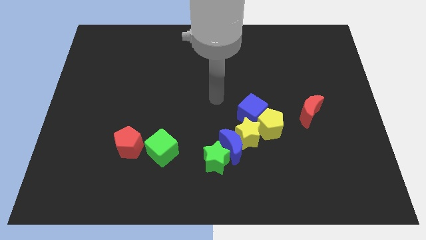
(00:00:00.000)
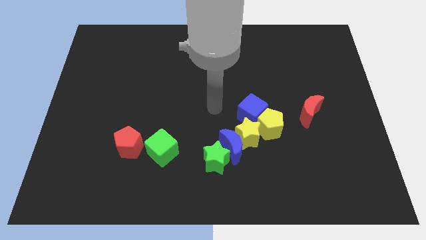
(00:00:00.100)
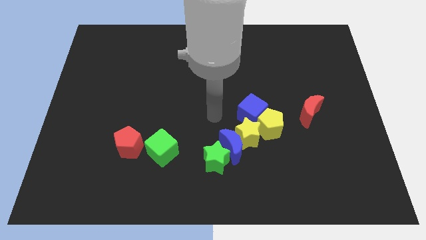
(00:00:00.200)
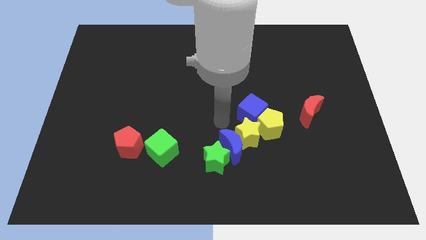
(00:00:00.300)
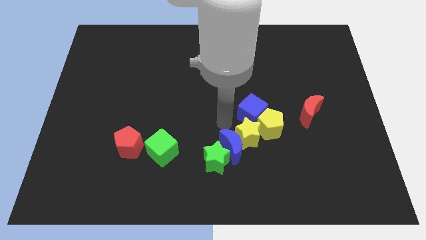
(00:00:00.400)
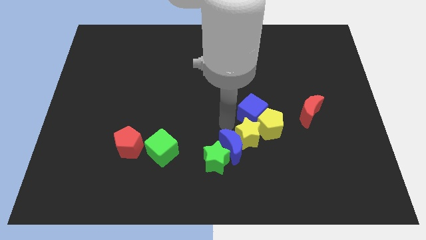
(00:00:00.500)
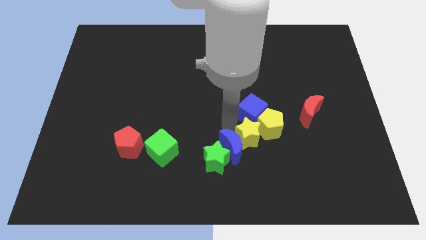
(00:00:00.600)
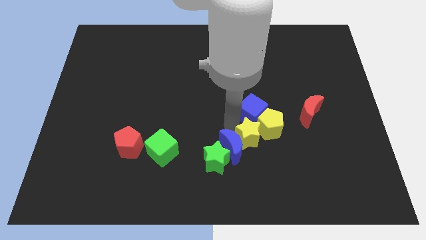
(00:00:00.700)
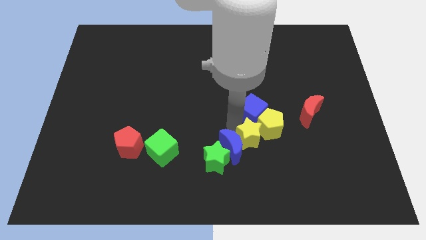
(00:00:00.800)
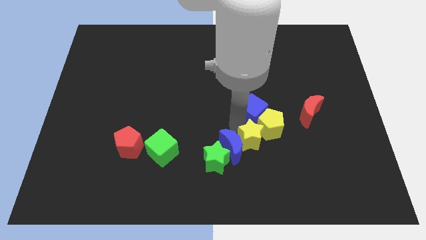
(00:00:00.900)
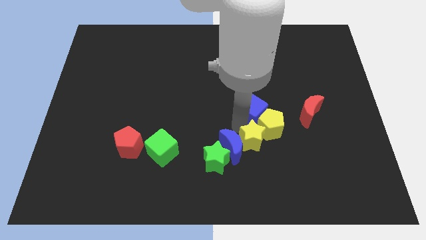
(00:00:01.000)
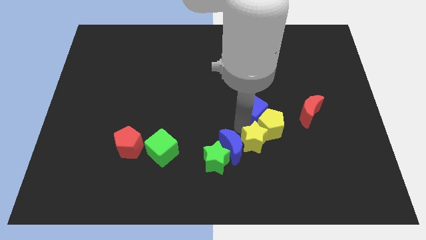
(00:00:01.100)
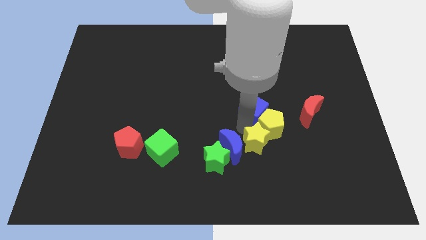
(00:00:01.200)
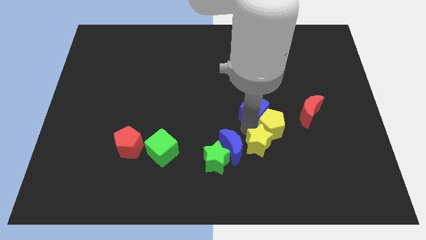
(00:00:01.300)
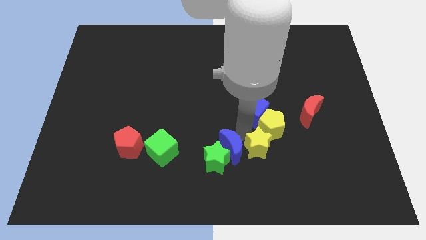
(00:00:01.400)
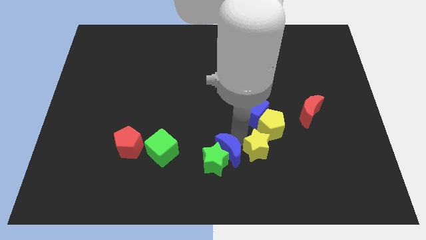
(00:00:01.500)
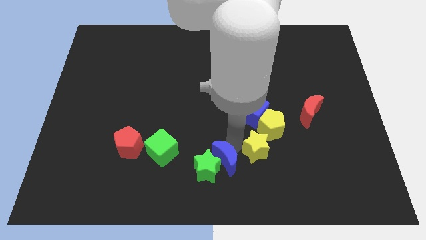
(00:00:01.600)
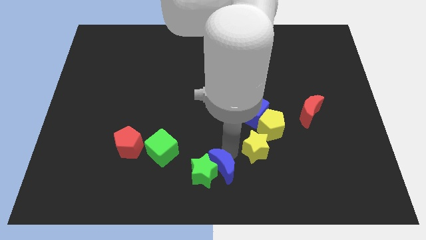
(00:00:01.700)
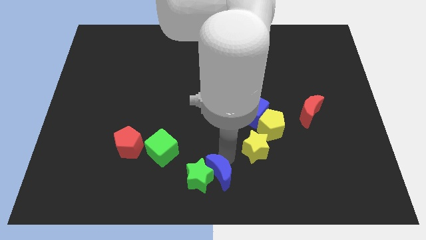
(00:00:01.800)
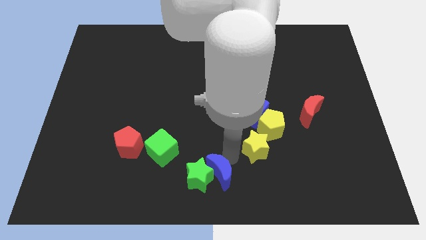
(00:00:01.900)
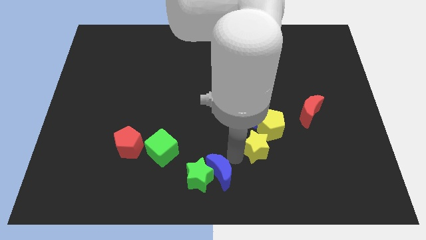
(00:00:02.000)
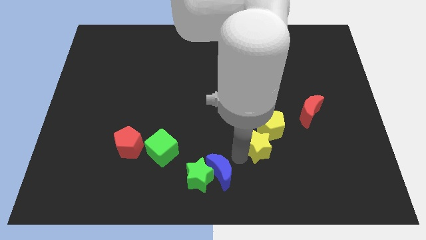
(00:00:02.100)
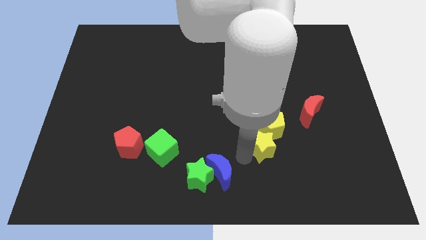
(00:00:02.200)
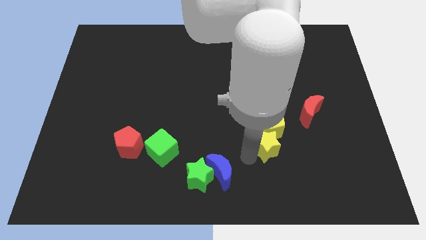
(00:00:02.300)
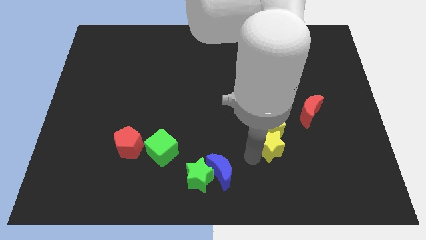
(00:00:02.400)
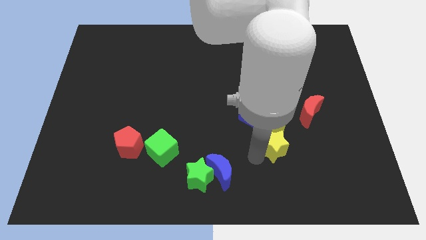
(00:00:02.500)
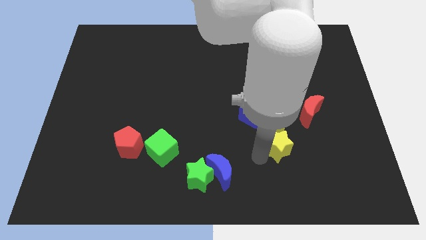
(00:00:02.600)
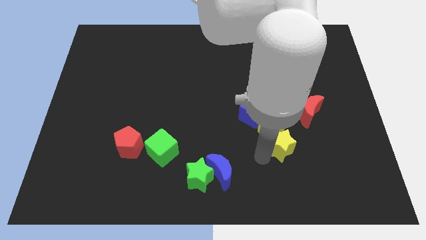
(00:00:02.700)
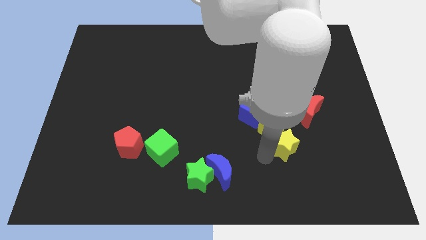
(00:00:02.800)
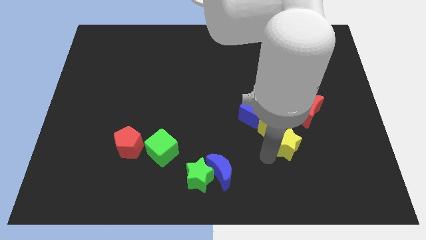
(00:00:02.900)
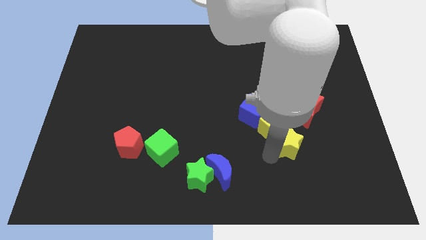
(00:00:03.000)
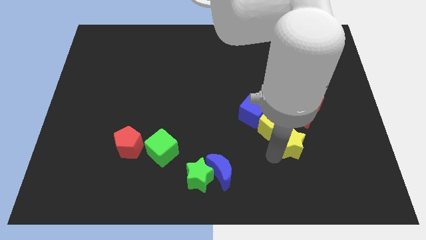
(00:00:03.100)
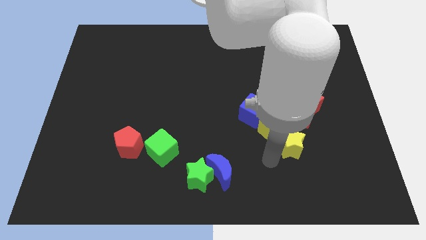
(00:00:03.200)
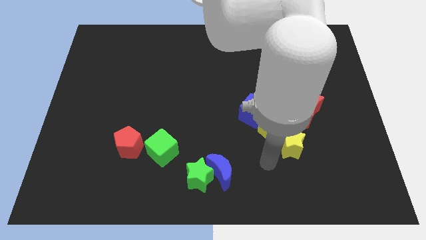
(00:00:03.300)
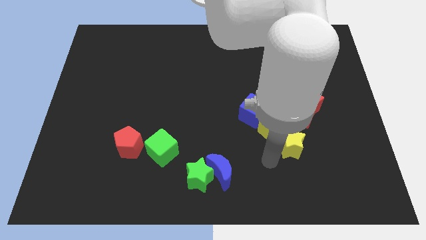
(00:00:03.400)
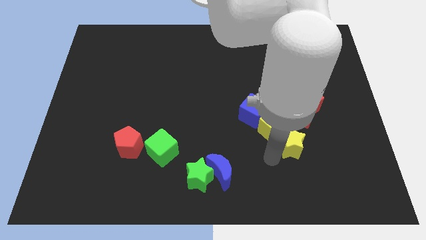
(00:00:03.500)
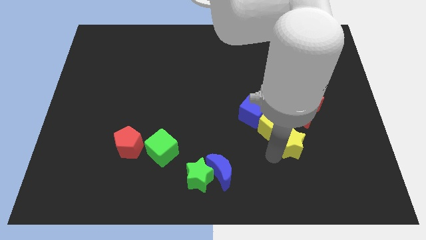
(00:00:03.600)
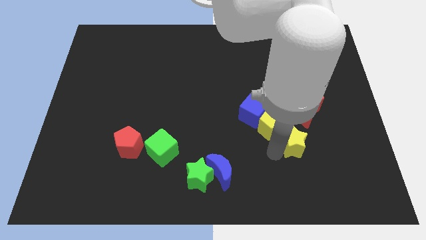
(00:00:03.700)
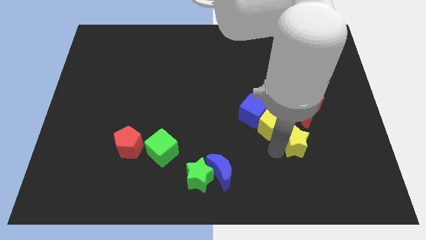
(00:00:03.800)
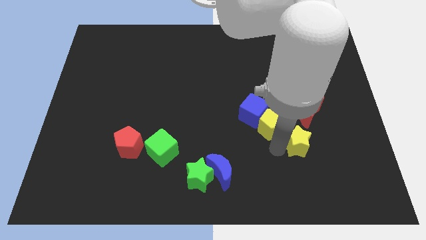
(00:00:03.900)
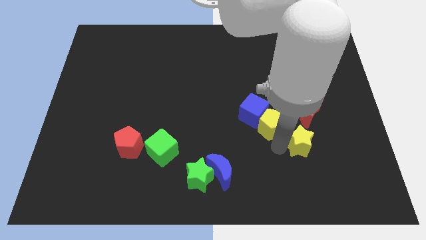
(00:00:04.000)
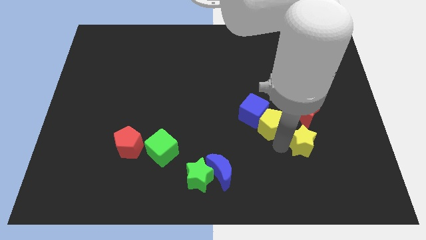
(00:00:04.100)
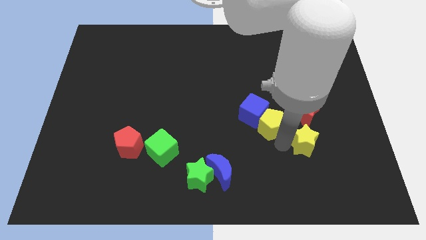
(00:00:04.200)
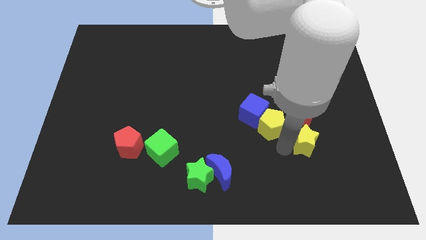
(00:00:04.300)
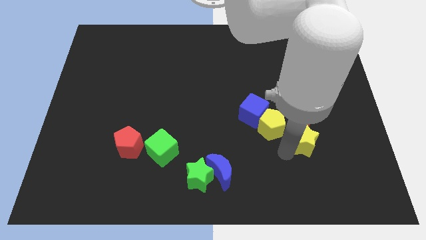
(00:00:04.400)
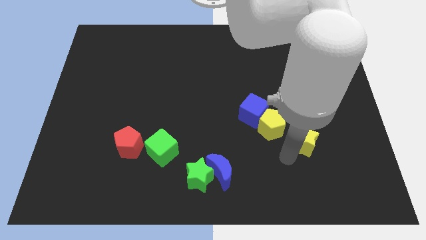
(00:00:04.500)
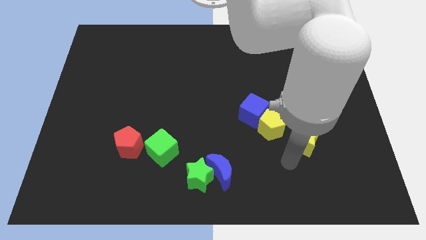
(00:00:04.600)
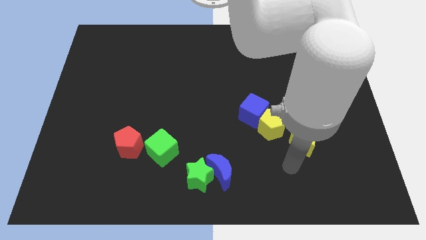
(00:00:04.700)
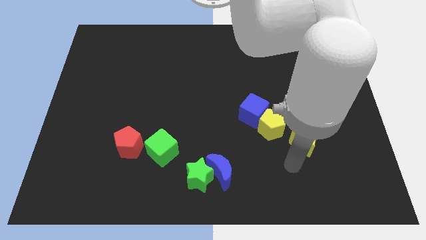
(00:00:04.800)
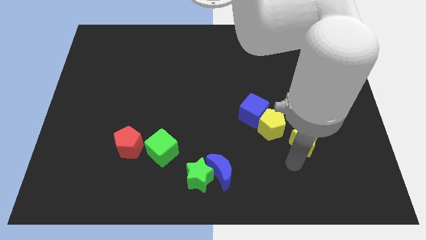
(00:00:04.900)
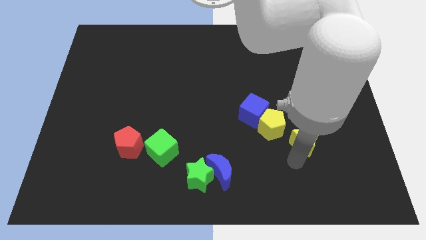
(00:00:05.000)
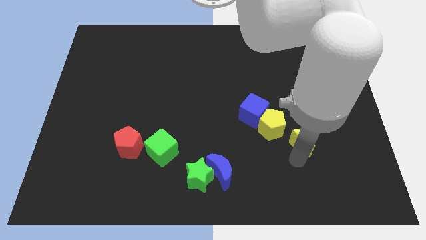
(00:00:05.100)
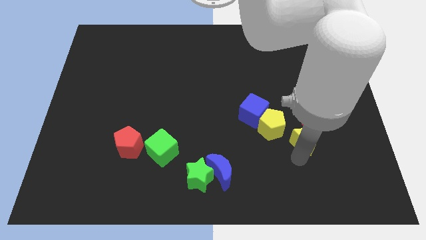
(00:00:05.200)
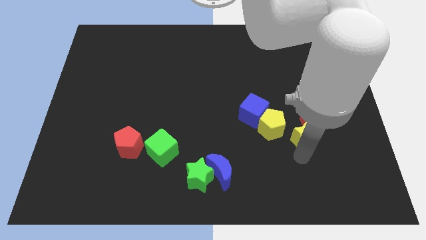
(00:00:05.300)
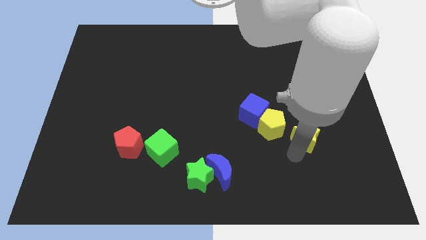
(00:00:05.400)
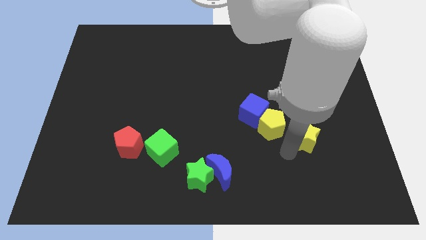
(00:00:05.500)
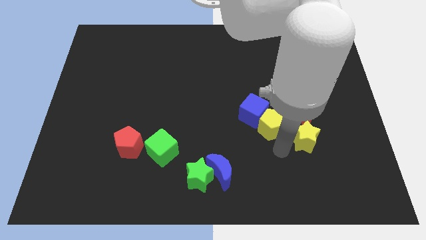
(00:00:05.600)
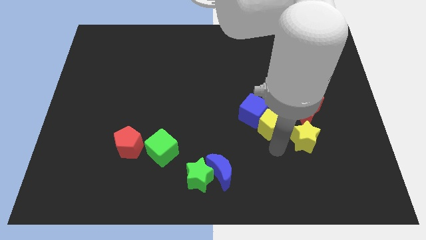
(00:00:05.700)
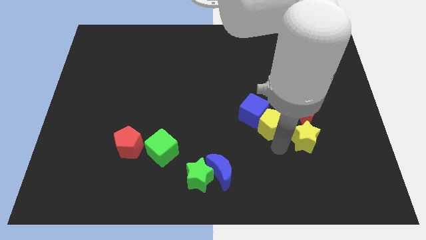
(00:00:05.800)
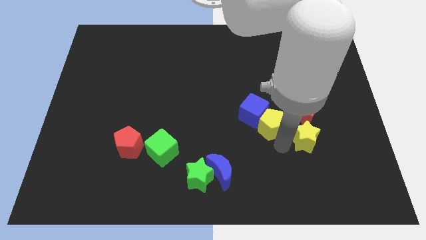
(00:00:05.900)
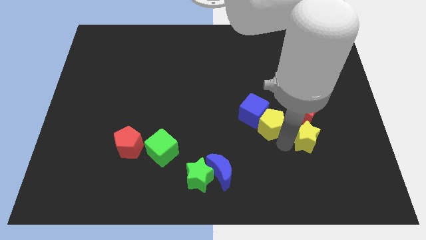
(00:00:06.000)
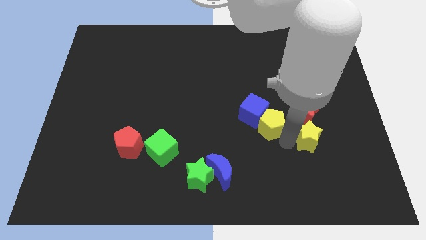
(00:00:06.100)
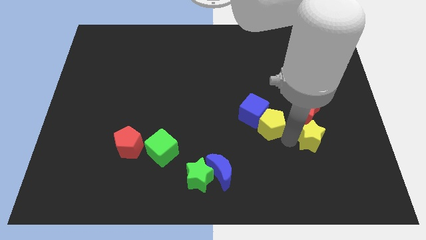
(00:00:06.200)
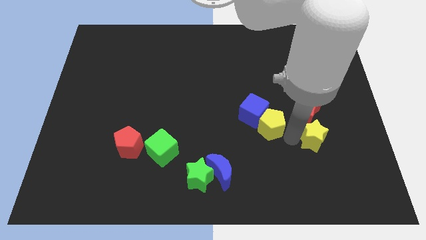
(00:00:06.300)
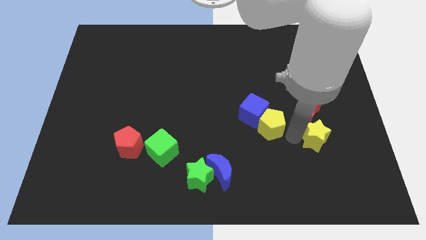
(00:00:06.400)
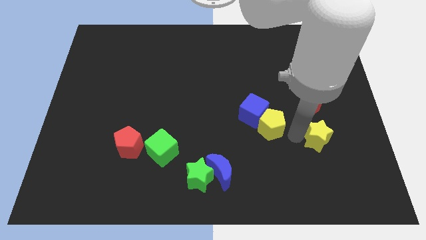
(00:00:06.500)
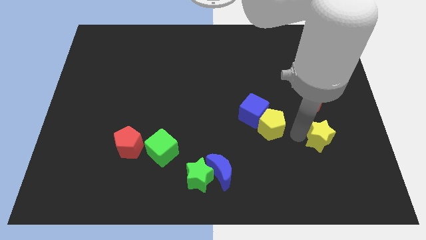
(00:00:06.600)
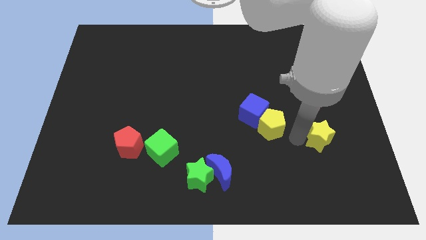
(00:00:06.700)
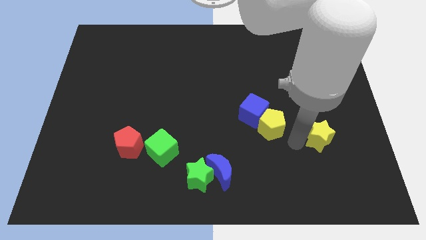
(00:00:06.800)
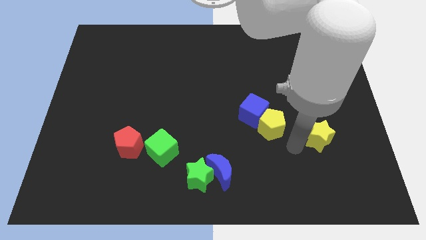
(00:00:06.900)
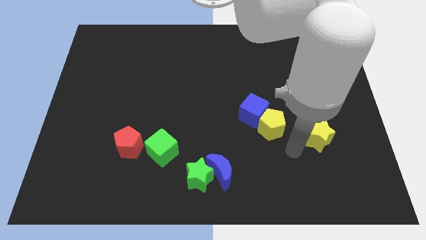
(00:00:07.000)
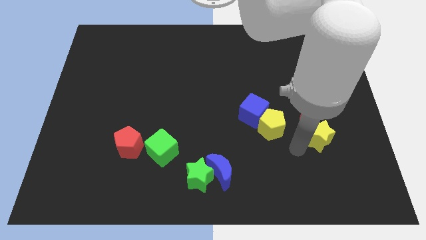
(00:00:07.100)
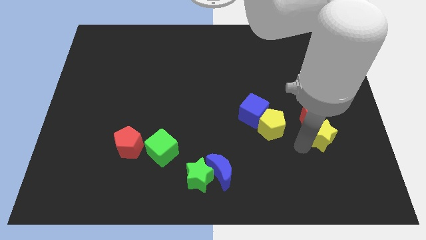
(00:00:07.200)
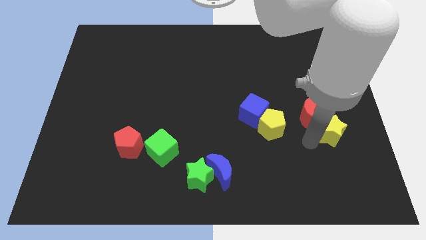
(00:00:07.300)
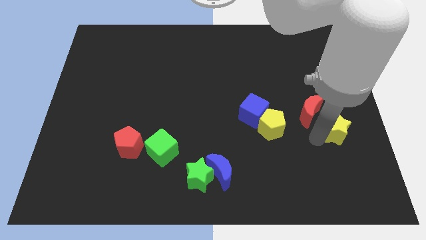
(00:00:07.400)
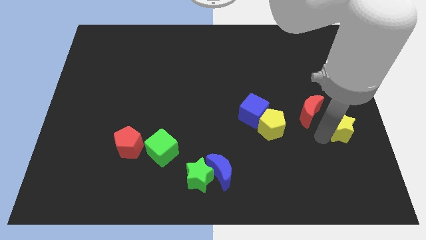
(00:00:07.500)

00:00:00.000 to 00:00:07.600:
put the yellow star to the center right
